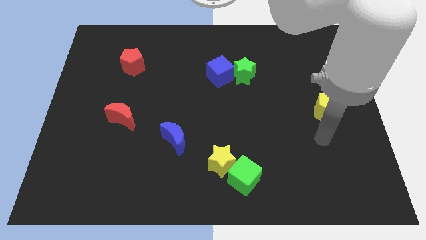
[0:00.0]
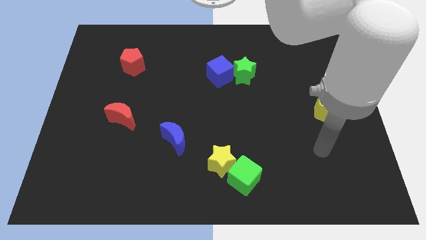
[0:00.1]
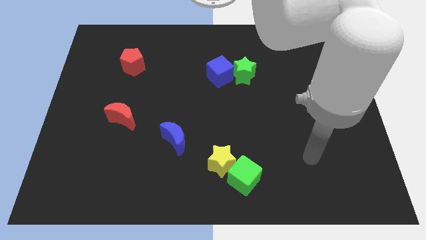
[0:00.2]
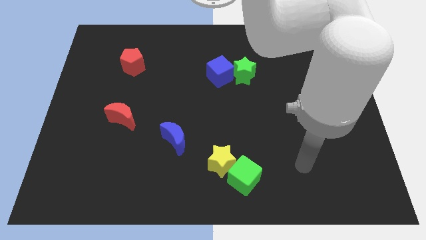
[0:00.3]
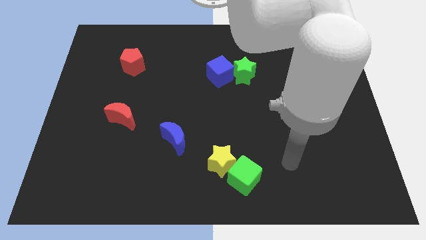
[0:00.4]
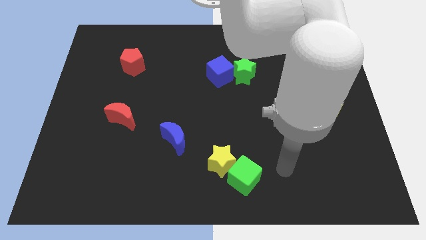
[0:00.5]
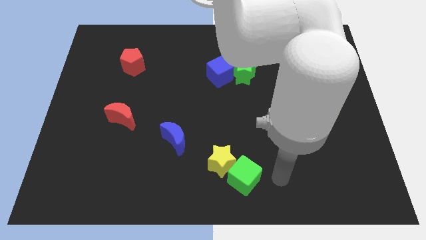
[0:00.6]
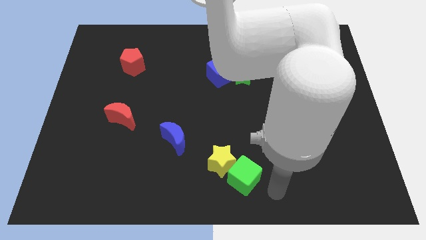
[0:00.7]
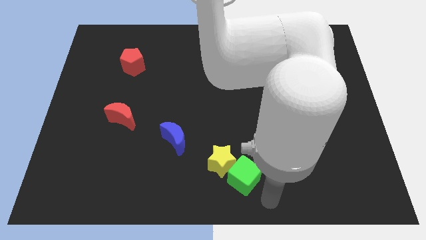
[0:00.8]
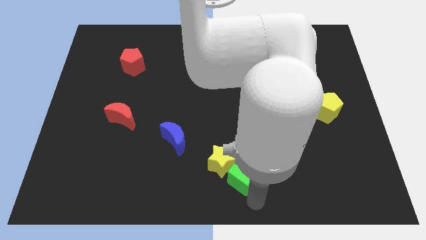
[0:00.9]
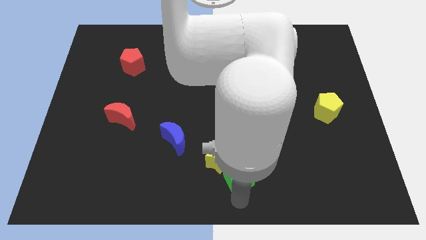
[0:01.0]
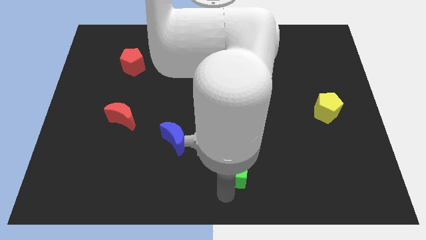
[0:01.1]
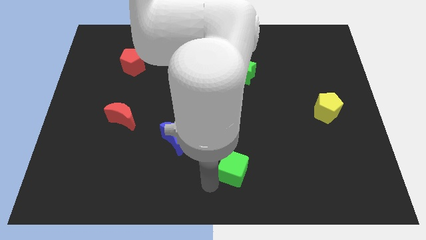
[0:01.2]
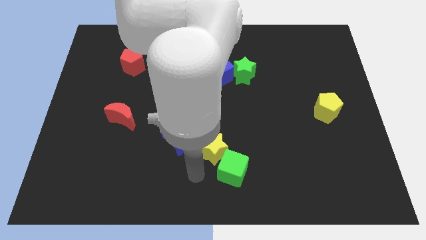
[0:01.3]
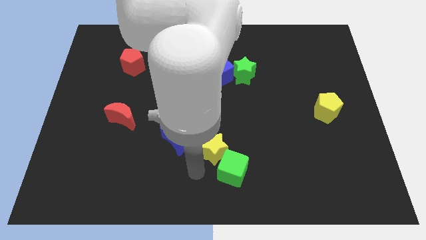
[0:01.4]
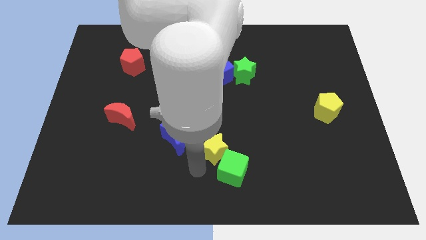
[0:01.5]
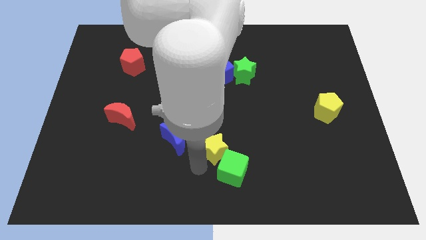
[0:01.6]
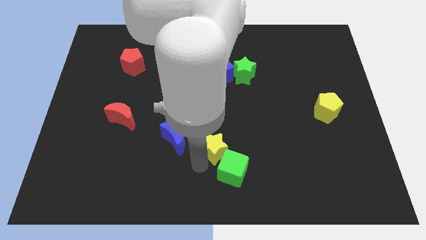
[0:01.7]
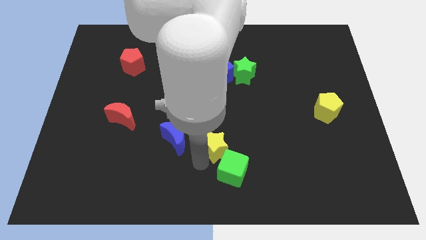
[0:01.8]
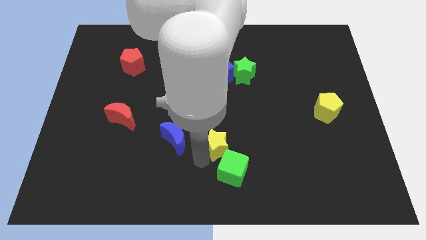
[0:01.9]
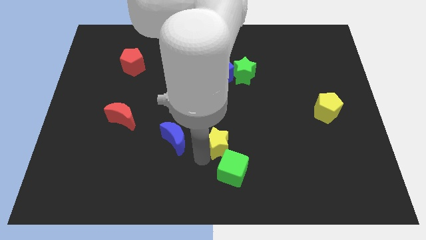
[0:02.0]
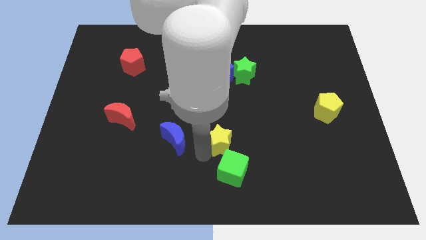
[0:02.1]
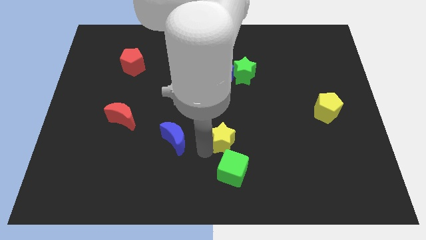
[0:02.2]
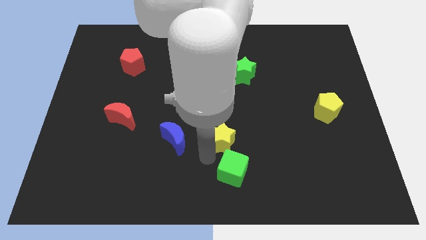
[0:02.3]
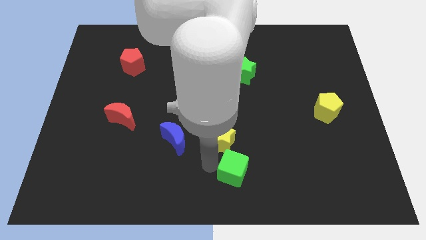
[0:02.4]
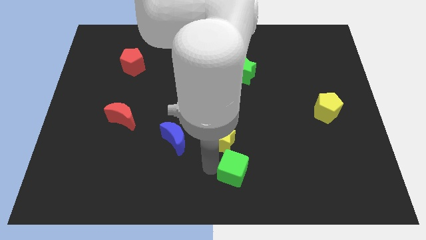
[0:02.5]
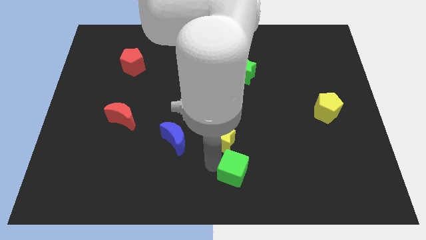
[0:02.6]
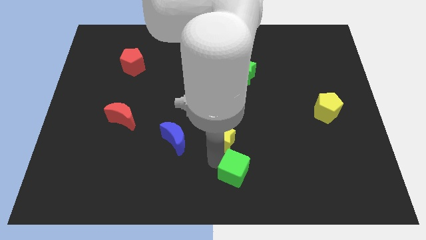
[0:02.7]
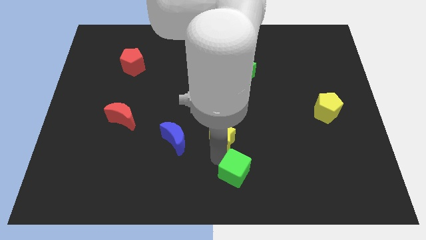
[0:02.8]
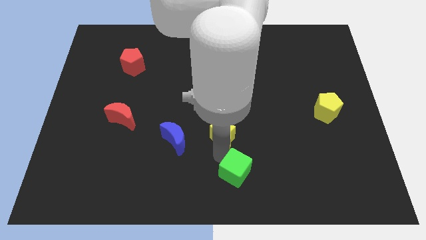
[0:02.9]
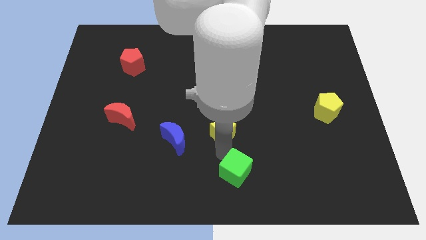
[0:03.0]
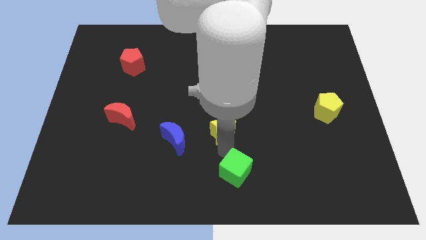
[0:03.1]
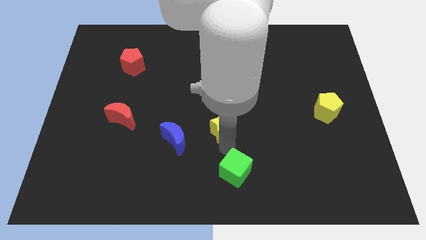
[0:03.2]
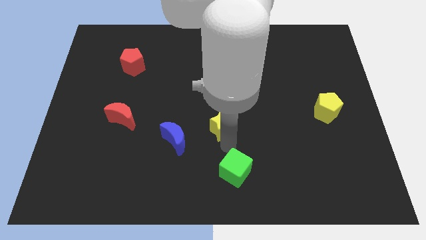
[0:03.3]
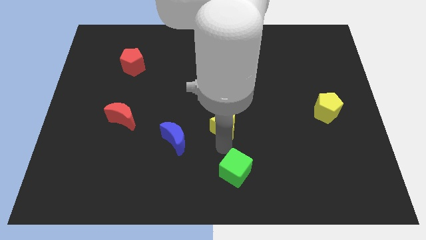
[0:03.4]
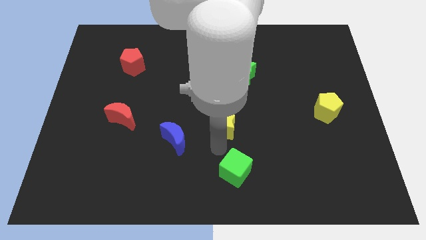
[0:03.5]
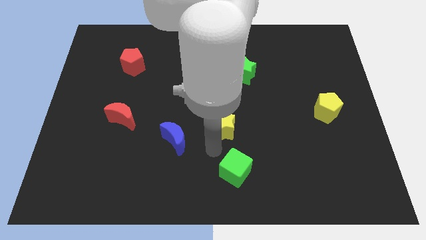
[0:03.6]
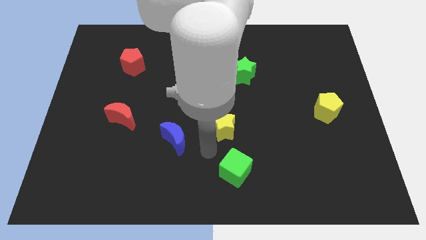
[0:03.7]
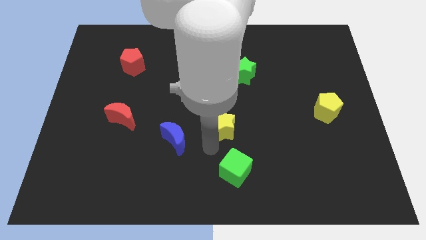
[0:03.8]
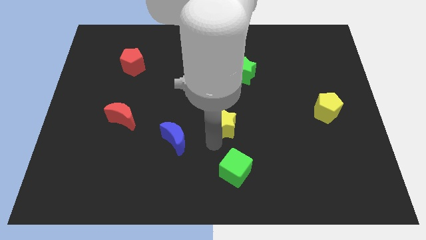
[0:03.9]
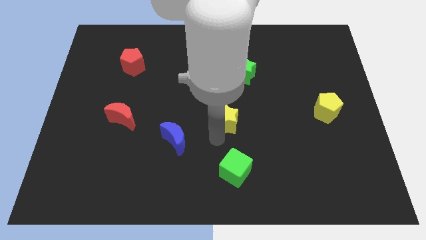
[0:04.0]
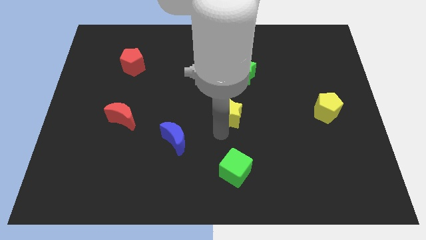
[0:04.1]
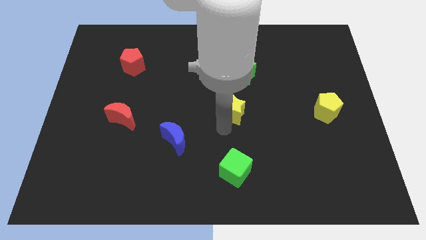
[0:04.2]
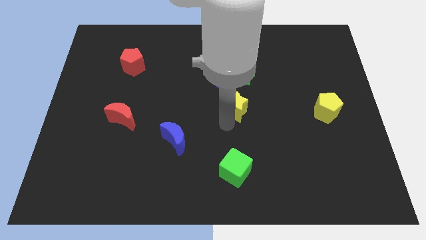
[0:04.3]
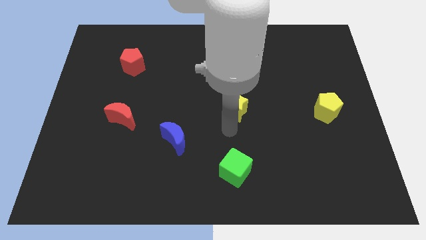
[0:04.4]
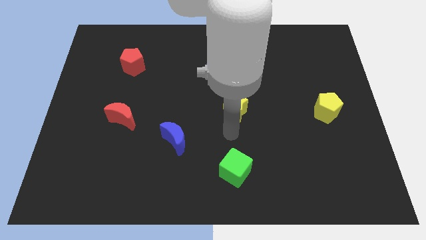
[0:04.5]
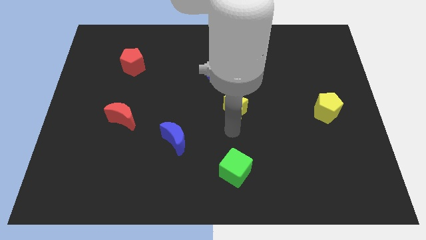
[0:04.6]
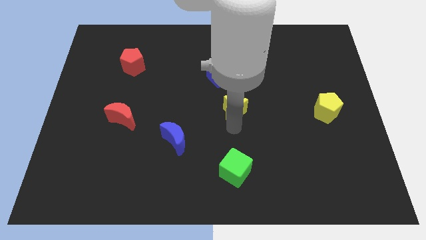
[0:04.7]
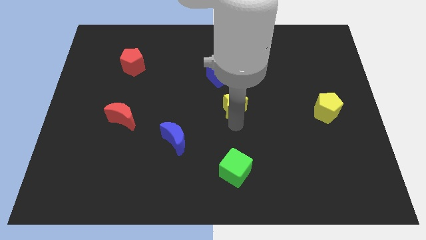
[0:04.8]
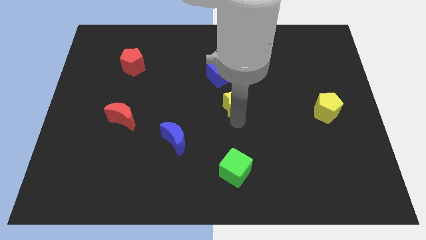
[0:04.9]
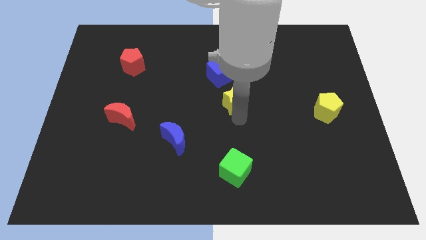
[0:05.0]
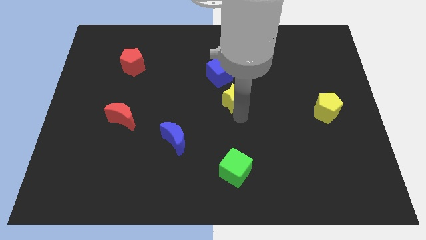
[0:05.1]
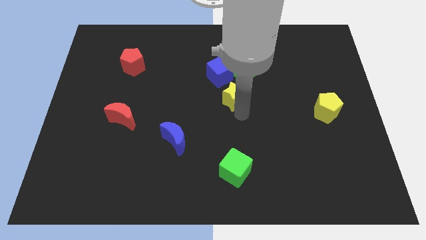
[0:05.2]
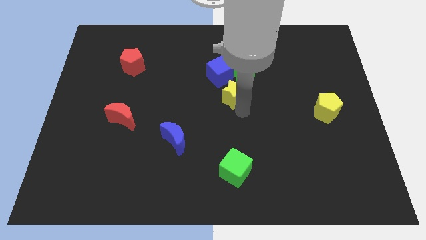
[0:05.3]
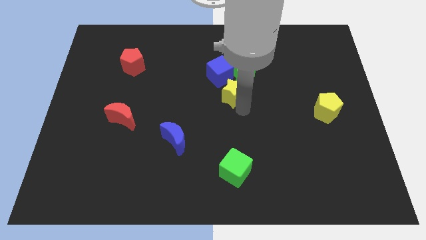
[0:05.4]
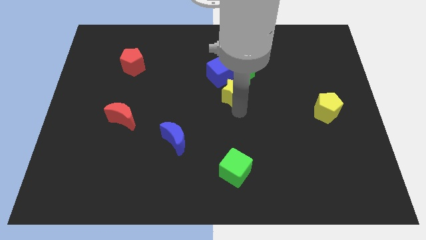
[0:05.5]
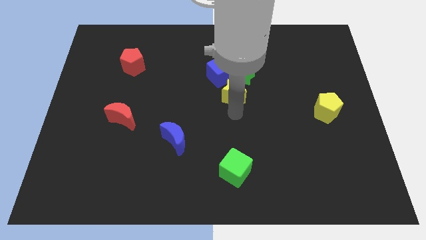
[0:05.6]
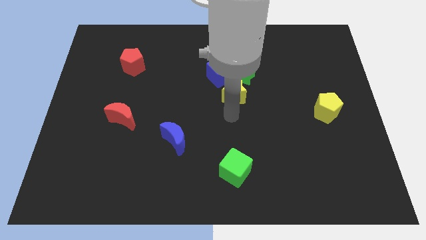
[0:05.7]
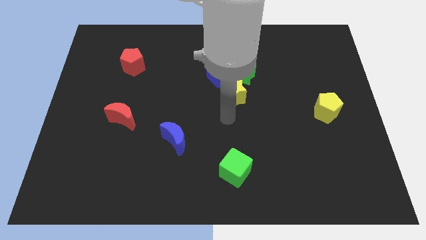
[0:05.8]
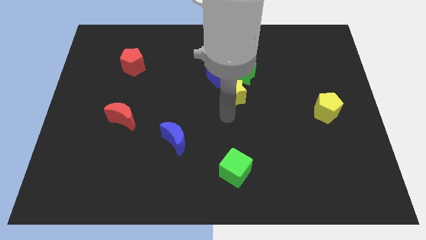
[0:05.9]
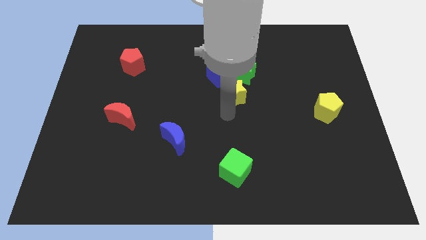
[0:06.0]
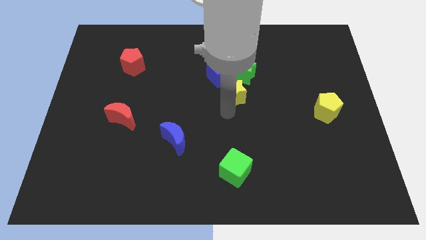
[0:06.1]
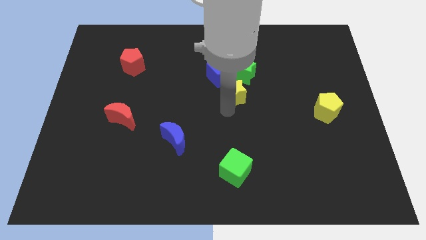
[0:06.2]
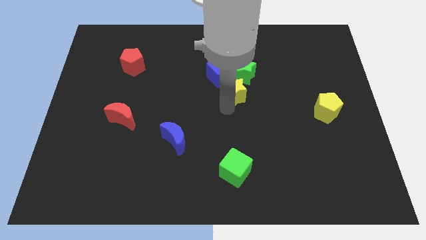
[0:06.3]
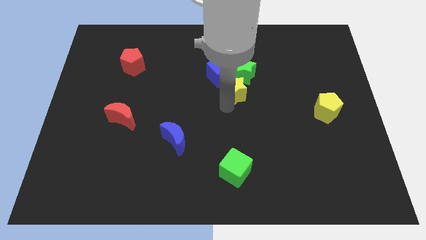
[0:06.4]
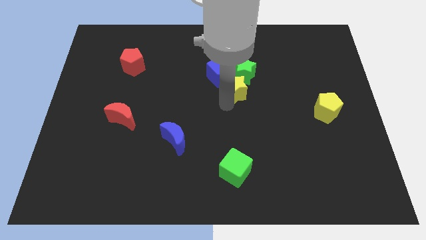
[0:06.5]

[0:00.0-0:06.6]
slide the yellow star towards the green star

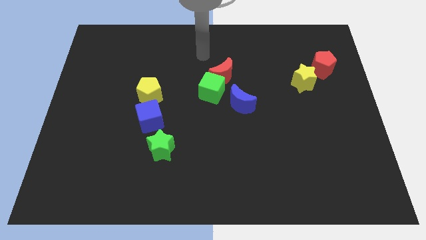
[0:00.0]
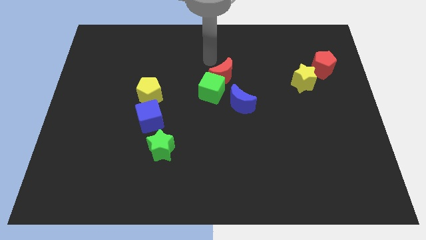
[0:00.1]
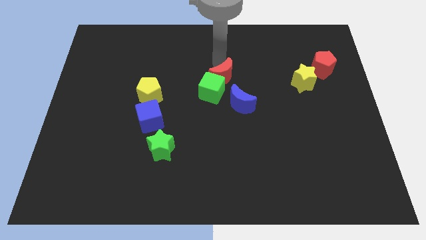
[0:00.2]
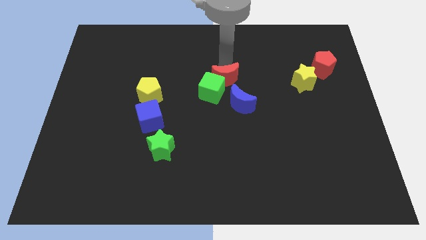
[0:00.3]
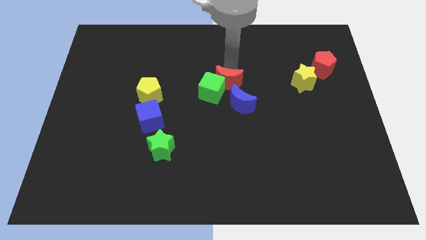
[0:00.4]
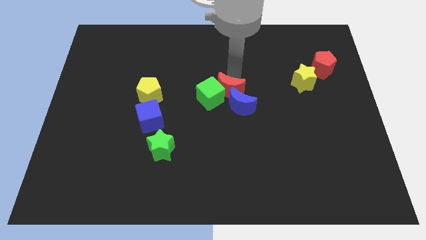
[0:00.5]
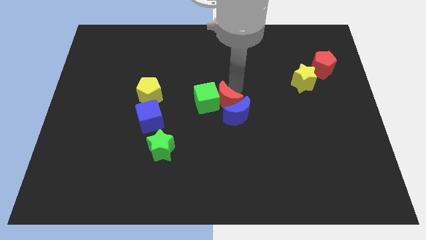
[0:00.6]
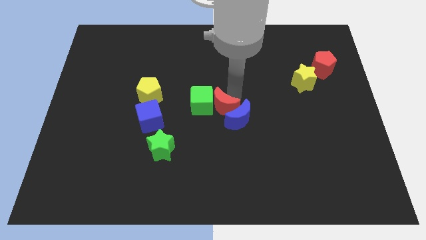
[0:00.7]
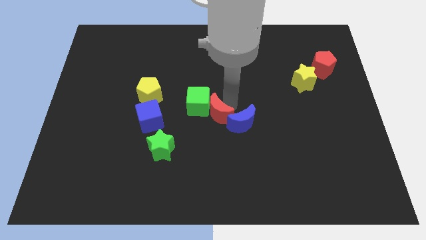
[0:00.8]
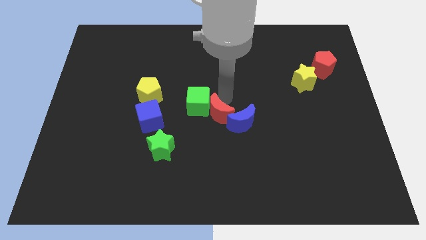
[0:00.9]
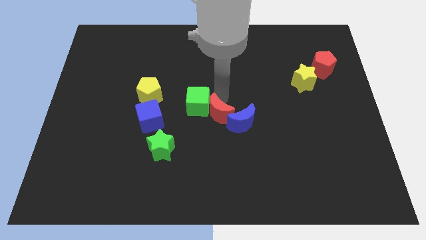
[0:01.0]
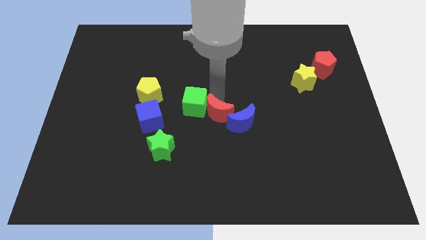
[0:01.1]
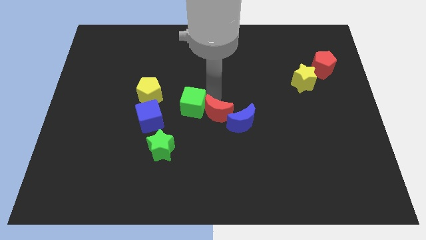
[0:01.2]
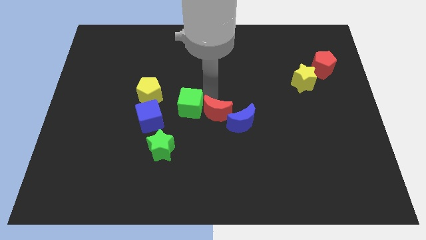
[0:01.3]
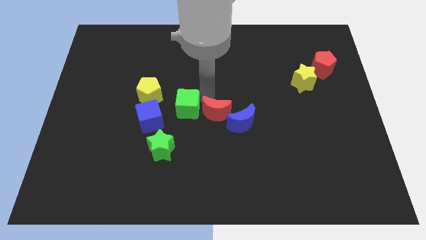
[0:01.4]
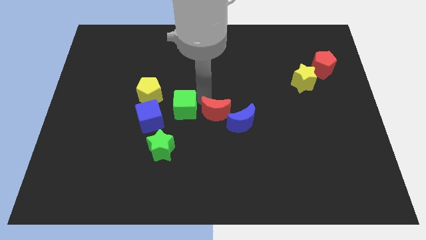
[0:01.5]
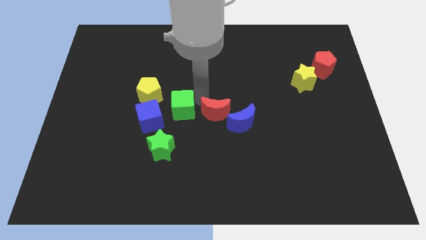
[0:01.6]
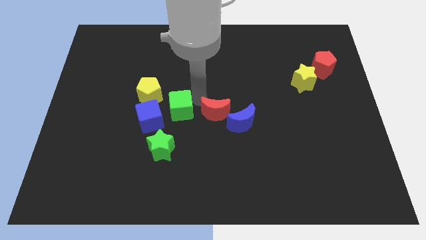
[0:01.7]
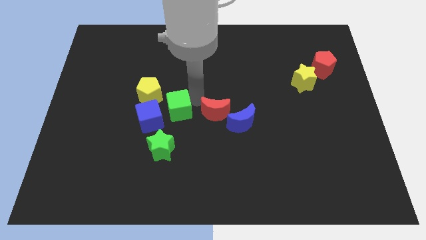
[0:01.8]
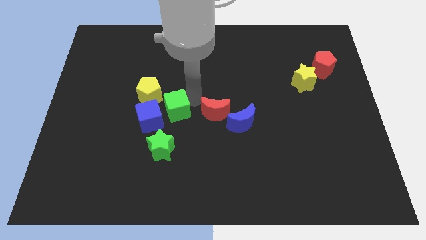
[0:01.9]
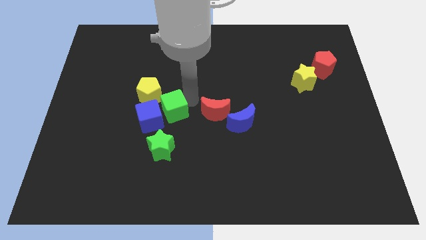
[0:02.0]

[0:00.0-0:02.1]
put the green cube to the blue cube
